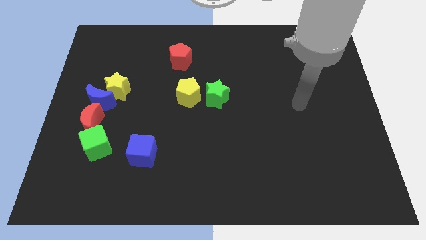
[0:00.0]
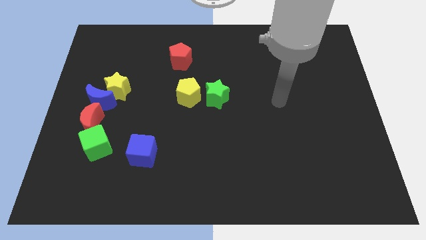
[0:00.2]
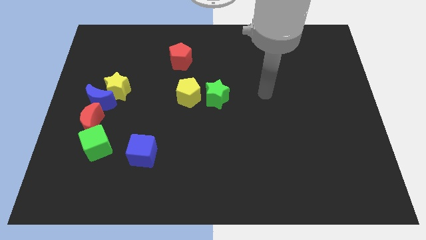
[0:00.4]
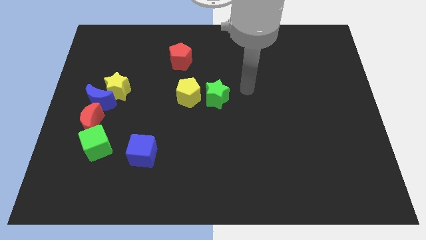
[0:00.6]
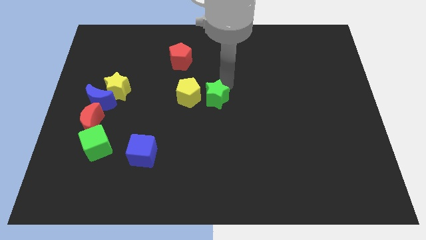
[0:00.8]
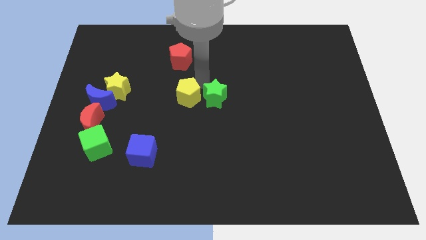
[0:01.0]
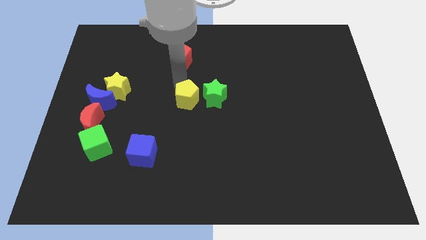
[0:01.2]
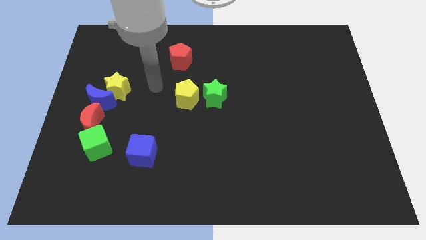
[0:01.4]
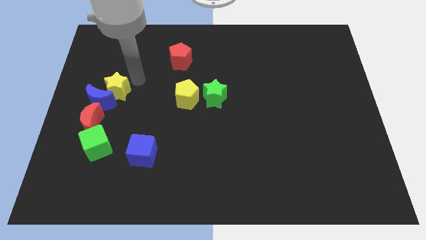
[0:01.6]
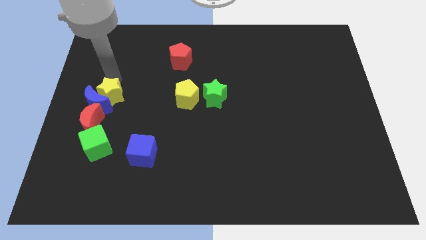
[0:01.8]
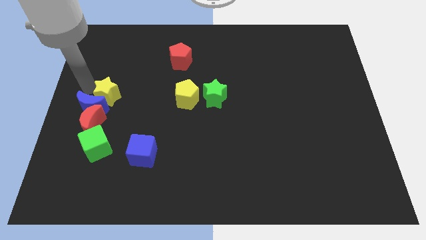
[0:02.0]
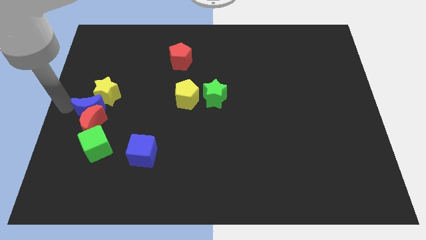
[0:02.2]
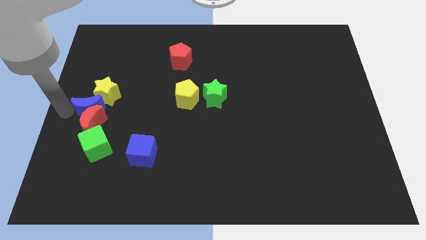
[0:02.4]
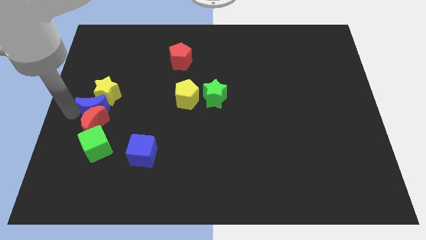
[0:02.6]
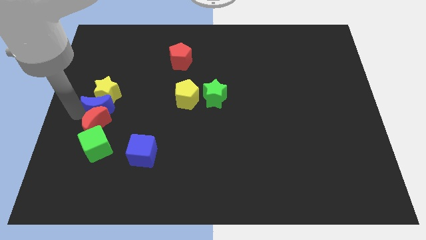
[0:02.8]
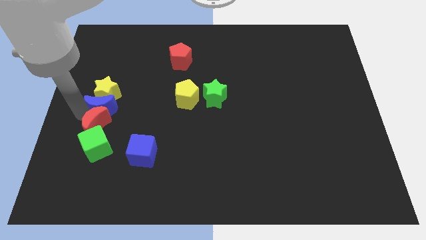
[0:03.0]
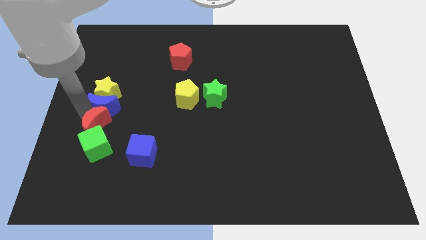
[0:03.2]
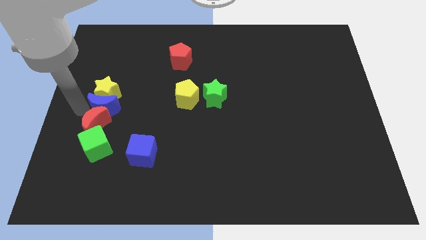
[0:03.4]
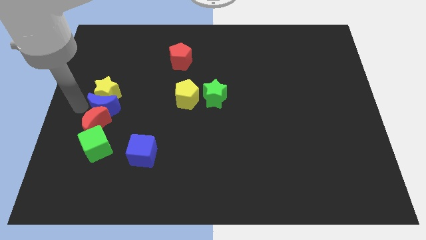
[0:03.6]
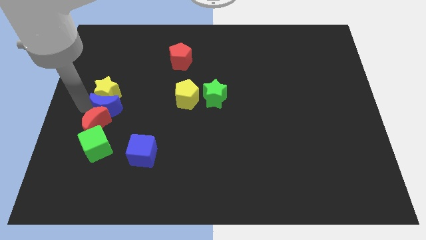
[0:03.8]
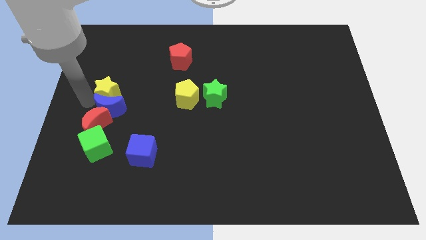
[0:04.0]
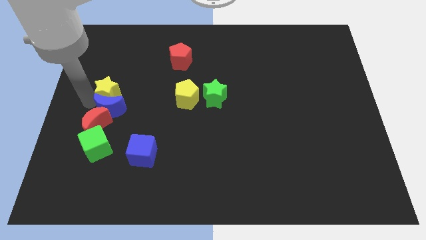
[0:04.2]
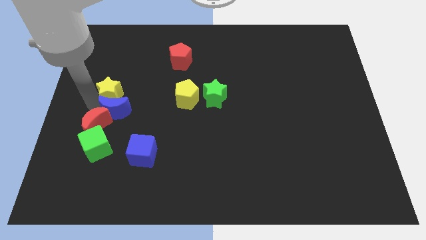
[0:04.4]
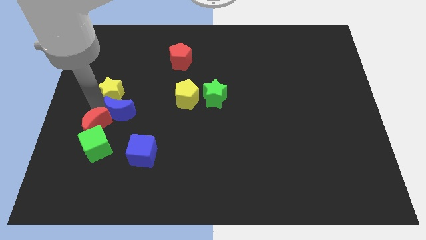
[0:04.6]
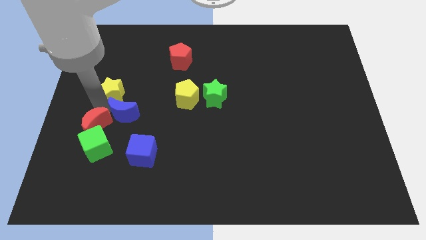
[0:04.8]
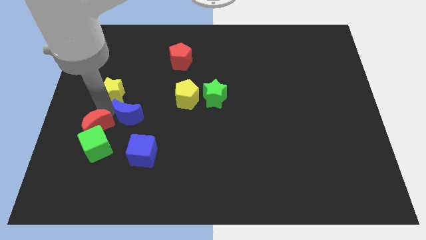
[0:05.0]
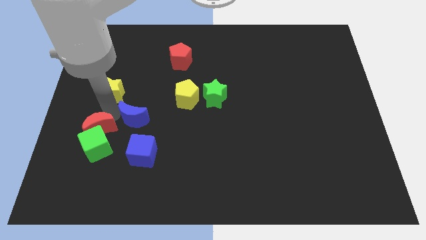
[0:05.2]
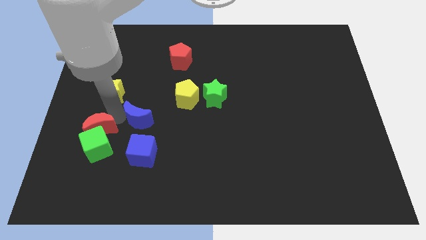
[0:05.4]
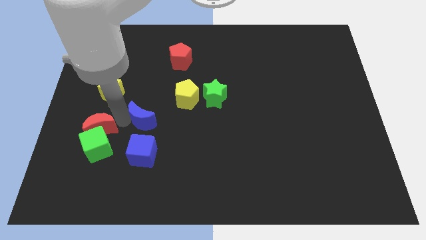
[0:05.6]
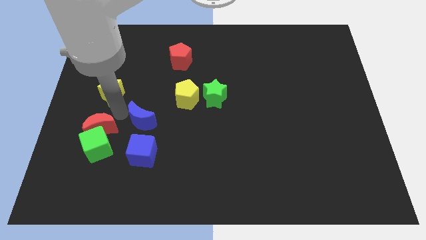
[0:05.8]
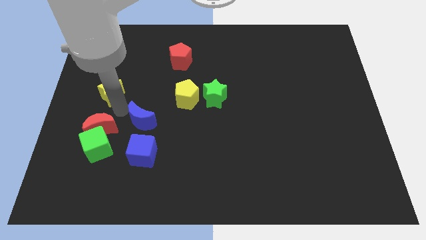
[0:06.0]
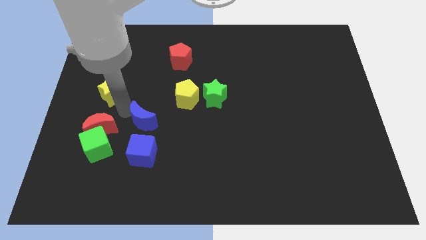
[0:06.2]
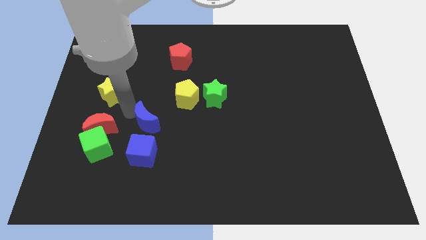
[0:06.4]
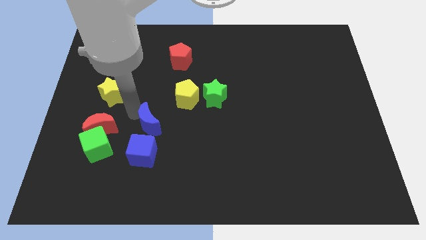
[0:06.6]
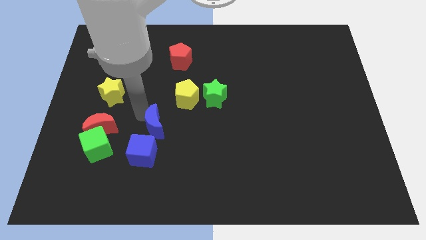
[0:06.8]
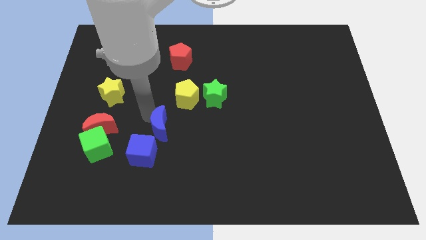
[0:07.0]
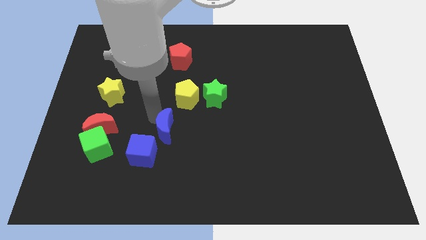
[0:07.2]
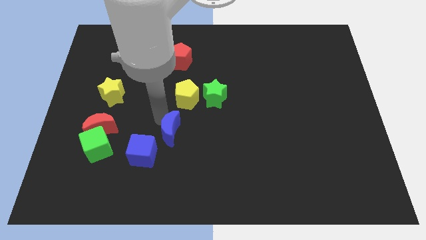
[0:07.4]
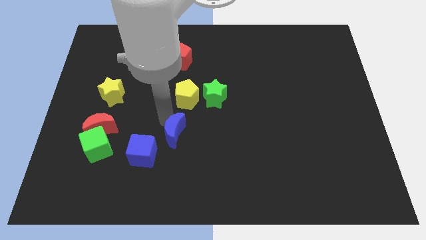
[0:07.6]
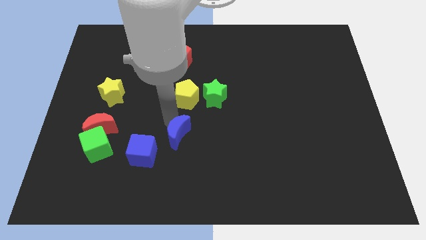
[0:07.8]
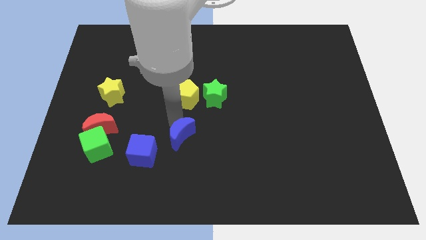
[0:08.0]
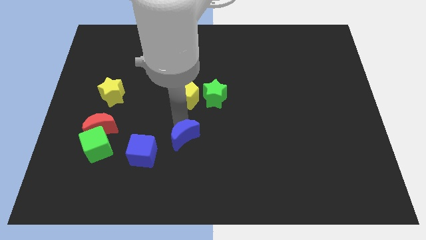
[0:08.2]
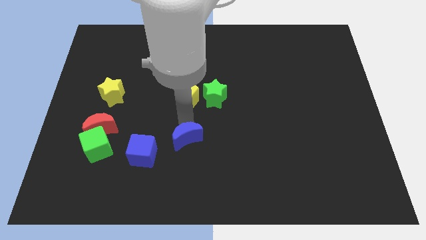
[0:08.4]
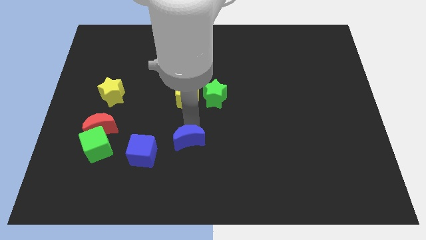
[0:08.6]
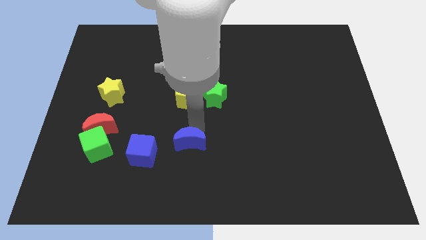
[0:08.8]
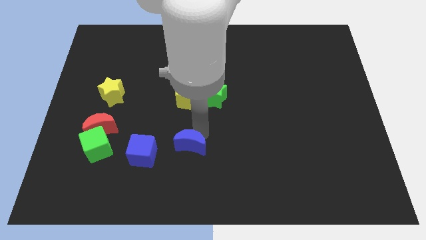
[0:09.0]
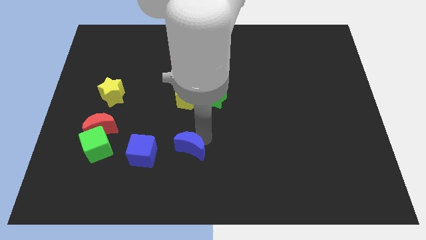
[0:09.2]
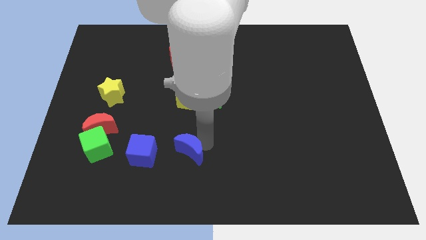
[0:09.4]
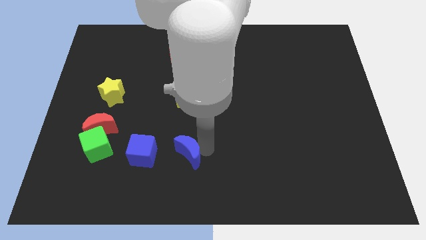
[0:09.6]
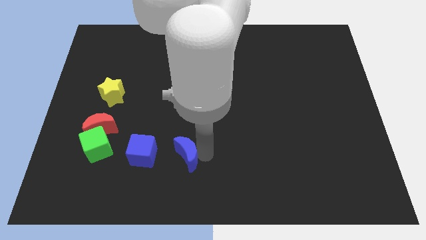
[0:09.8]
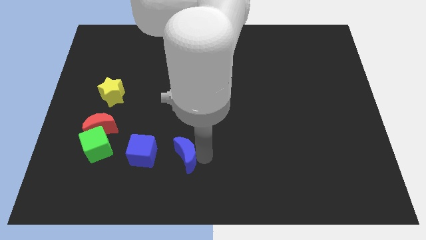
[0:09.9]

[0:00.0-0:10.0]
put the blue moon to the bottom side

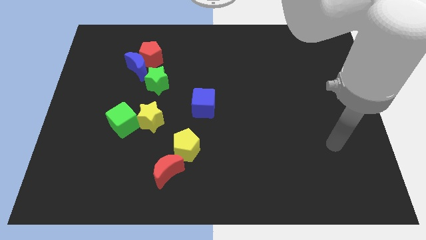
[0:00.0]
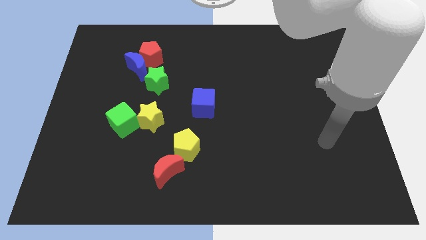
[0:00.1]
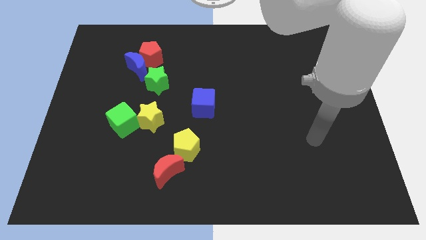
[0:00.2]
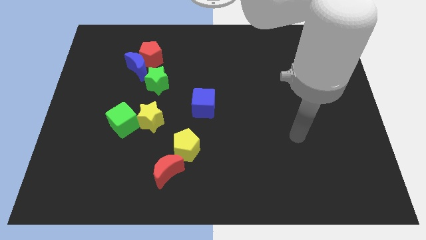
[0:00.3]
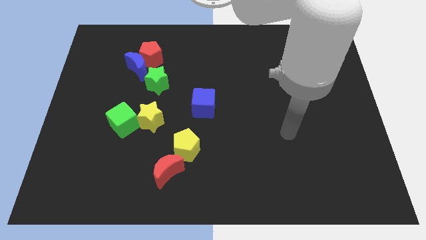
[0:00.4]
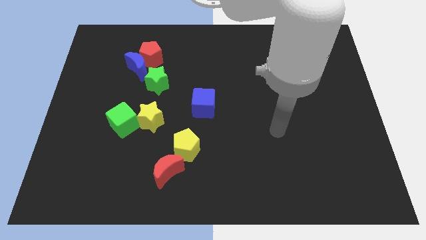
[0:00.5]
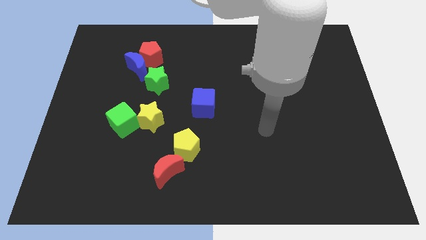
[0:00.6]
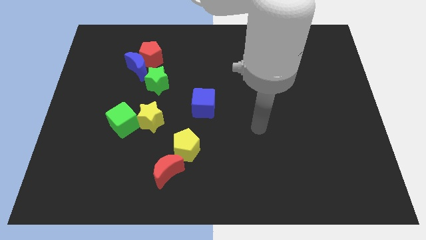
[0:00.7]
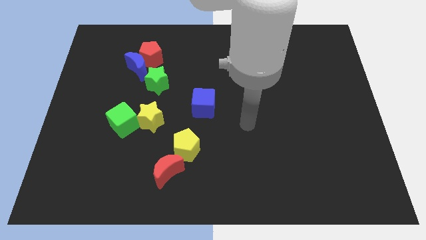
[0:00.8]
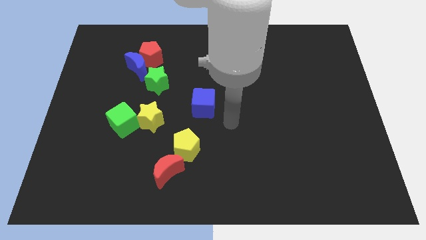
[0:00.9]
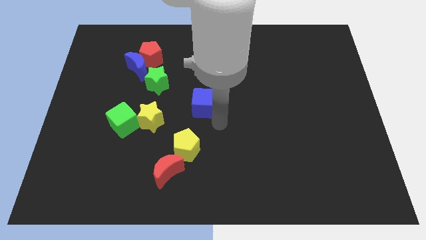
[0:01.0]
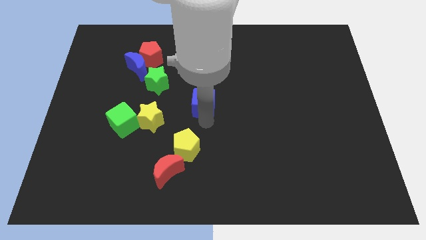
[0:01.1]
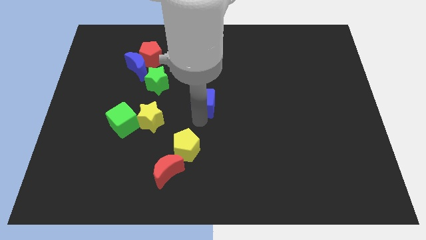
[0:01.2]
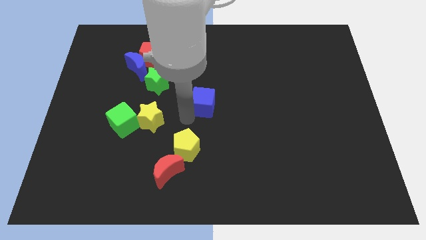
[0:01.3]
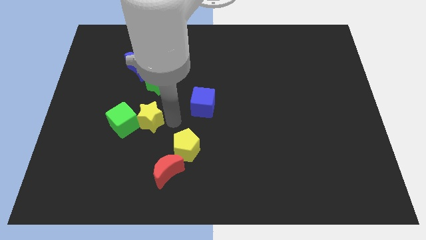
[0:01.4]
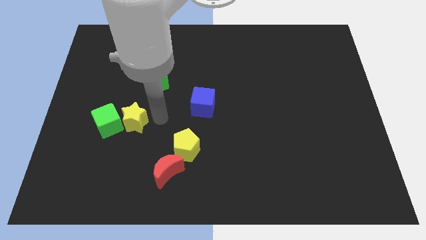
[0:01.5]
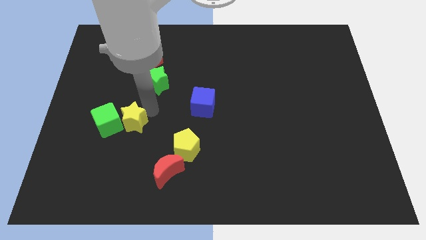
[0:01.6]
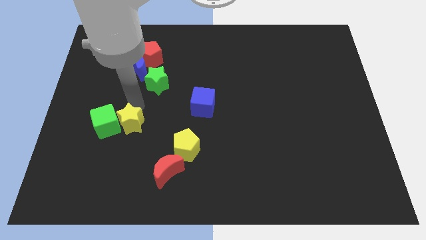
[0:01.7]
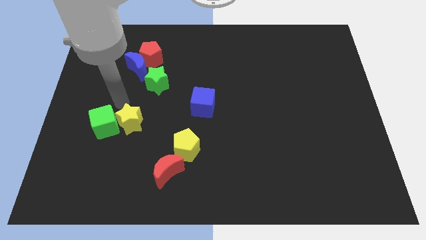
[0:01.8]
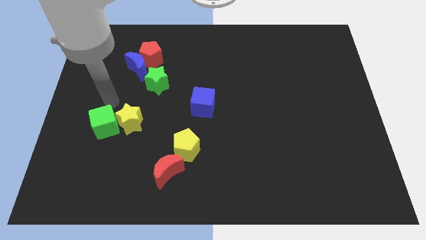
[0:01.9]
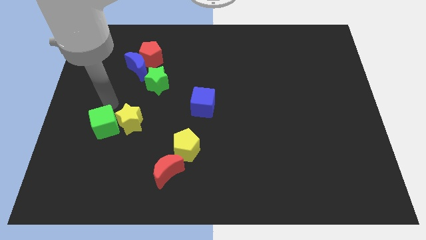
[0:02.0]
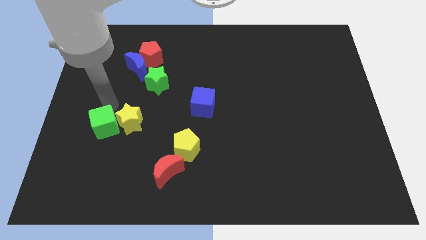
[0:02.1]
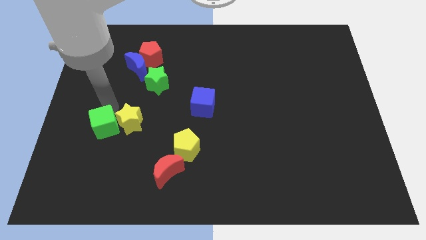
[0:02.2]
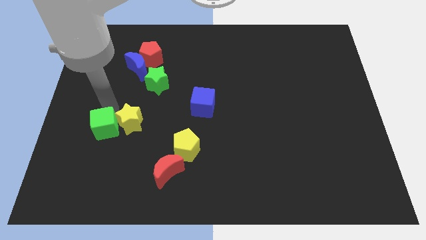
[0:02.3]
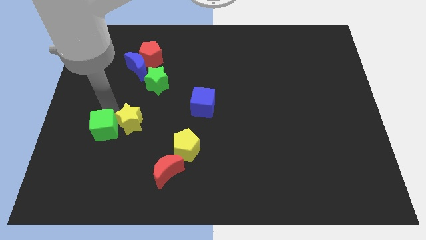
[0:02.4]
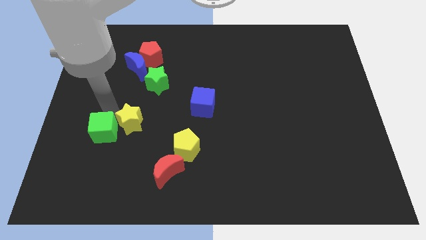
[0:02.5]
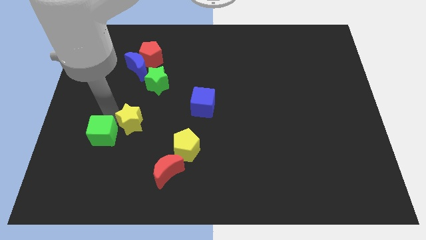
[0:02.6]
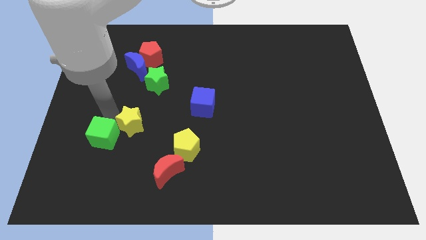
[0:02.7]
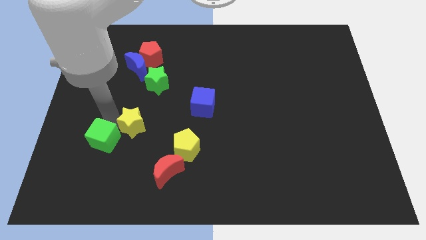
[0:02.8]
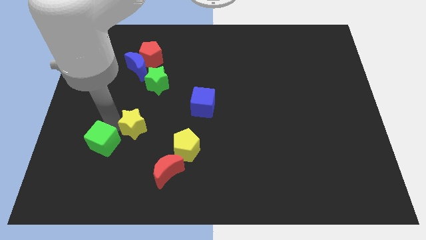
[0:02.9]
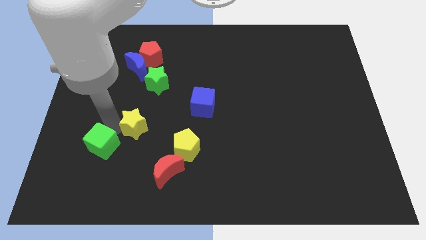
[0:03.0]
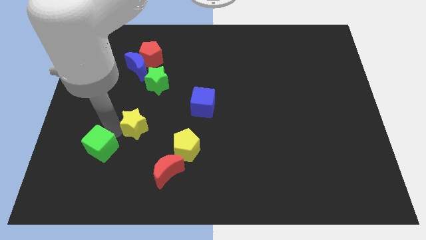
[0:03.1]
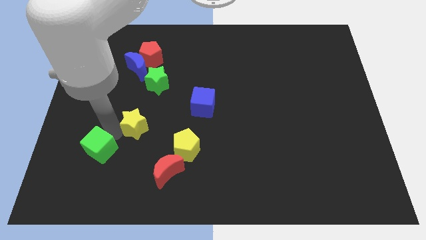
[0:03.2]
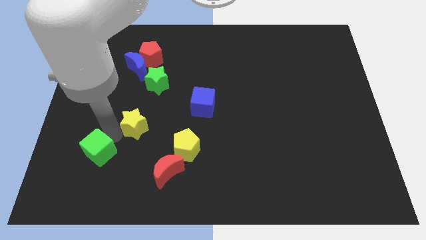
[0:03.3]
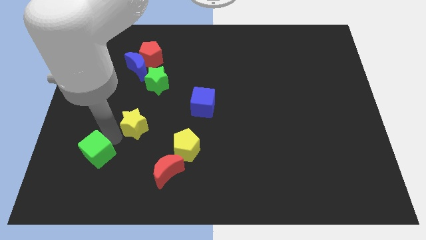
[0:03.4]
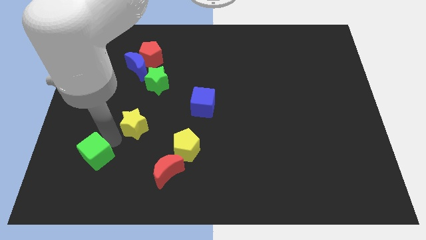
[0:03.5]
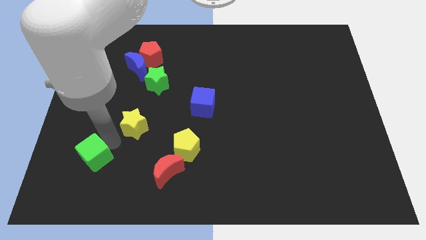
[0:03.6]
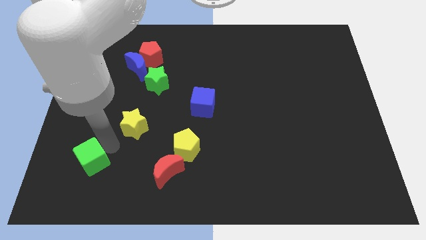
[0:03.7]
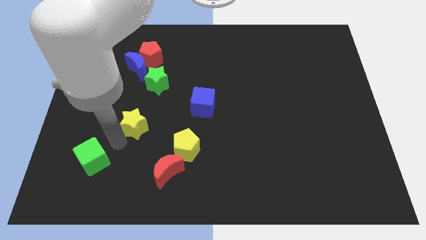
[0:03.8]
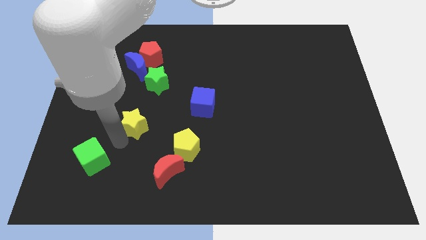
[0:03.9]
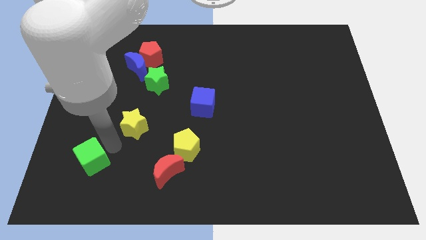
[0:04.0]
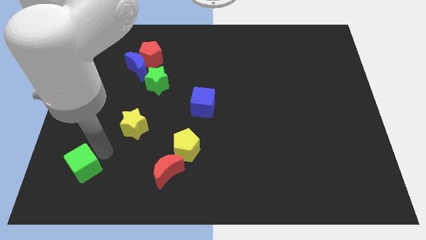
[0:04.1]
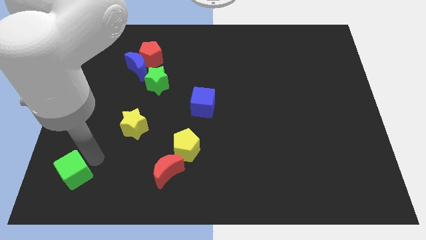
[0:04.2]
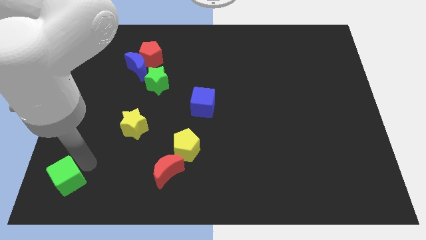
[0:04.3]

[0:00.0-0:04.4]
slide the green cube to the bottom left of the board
